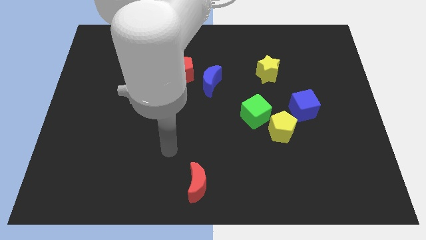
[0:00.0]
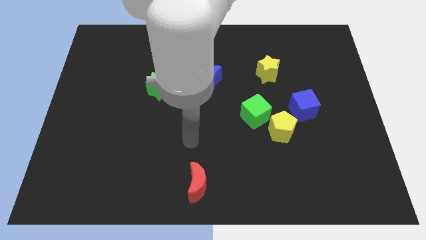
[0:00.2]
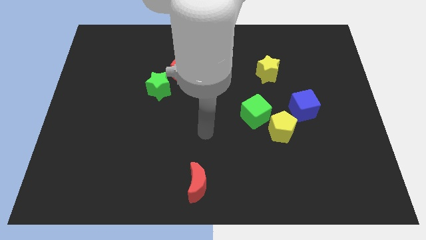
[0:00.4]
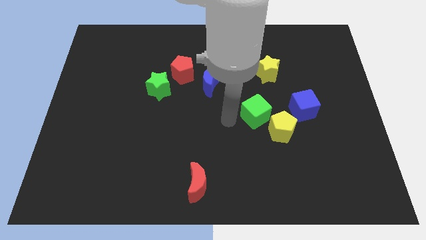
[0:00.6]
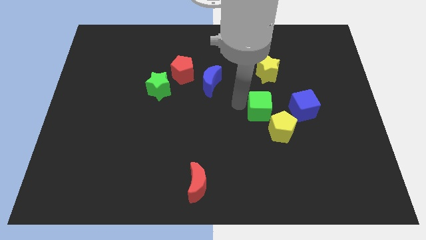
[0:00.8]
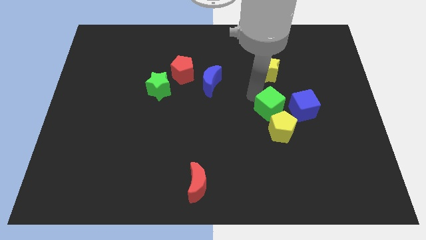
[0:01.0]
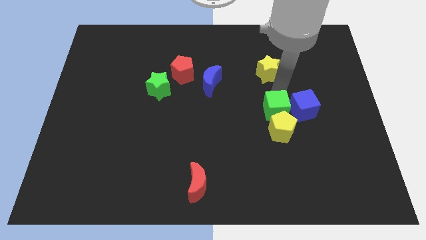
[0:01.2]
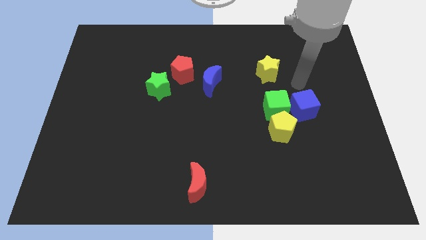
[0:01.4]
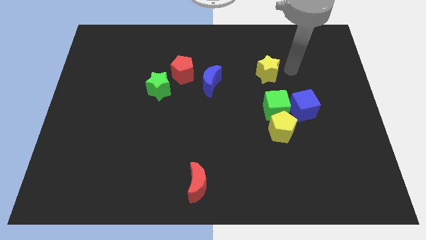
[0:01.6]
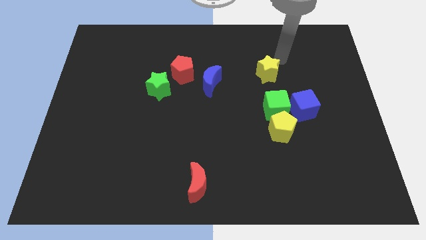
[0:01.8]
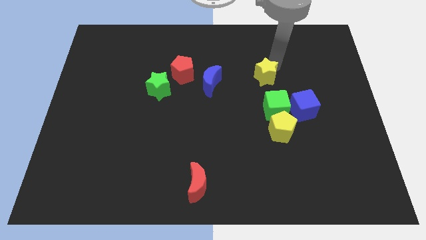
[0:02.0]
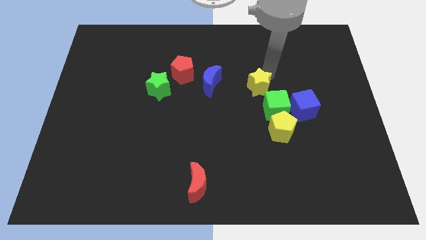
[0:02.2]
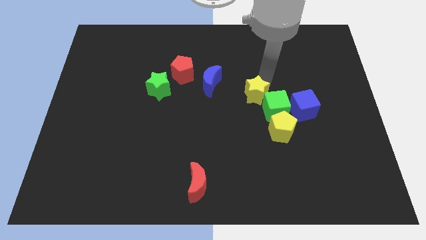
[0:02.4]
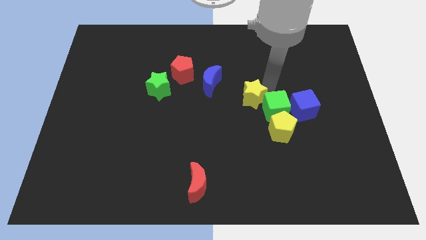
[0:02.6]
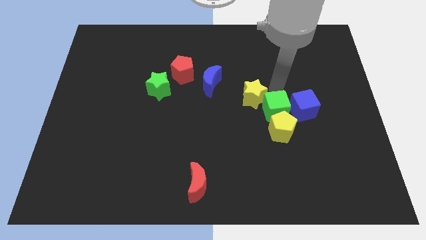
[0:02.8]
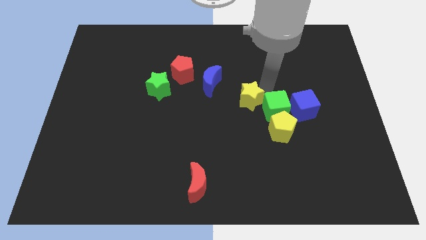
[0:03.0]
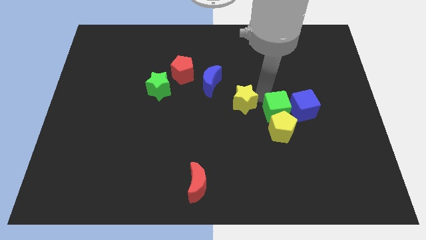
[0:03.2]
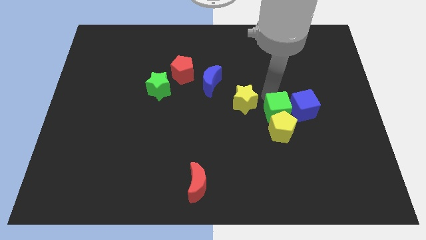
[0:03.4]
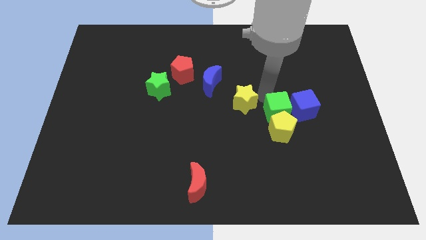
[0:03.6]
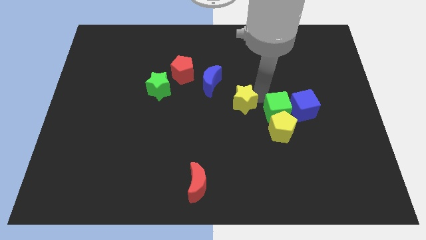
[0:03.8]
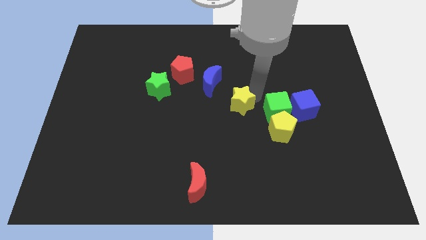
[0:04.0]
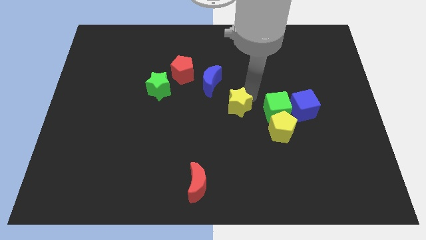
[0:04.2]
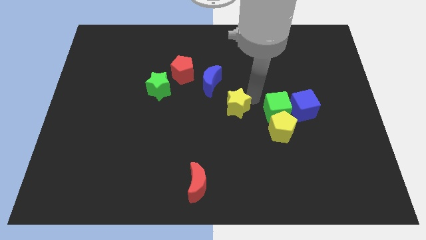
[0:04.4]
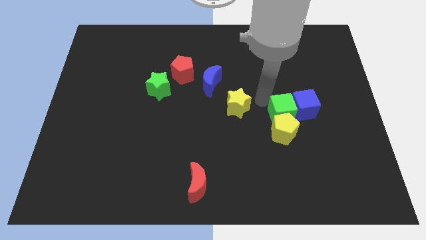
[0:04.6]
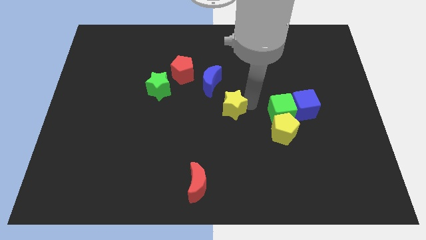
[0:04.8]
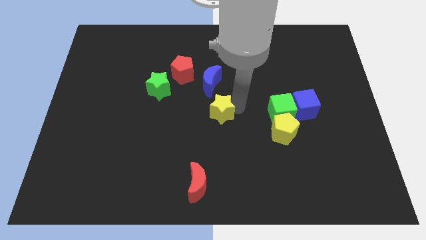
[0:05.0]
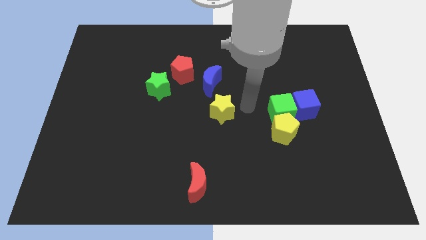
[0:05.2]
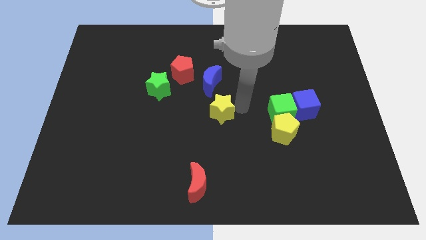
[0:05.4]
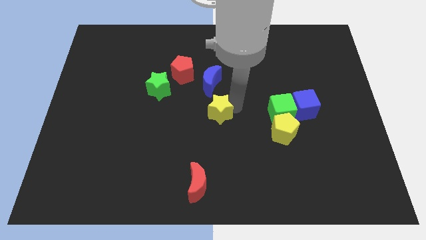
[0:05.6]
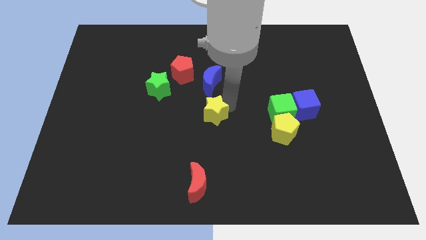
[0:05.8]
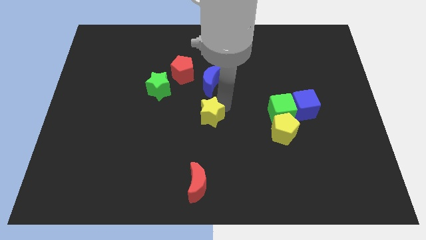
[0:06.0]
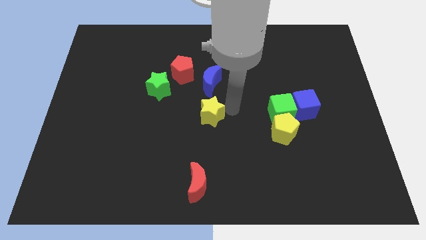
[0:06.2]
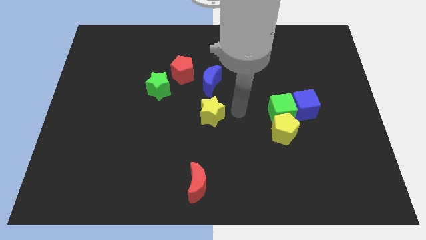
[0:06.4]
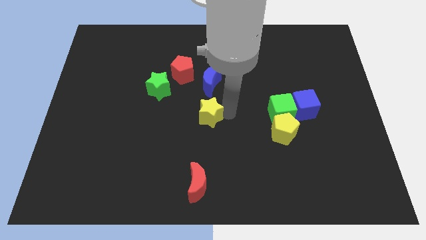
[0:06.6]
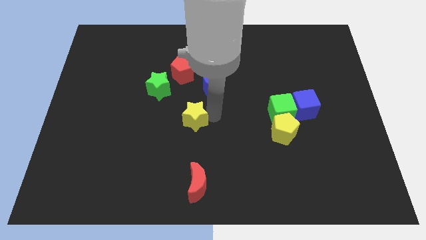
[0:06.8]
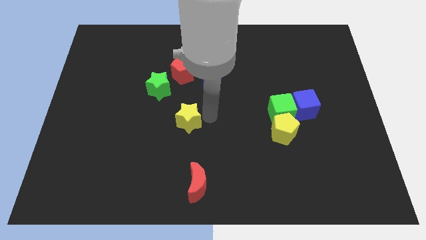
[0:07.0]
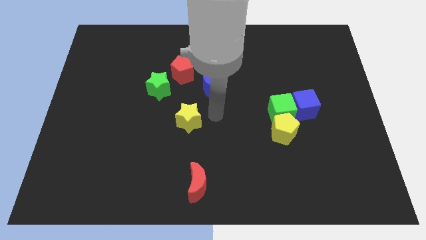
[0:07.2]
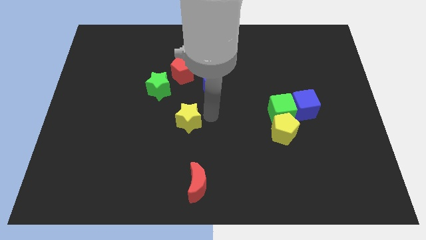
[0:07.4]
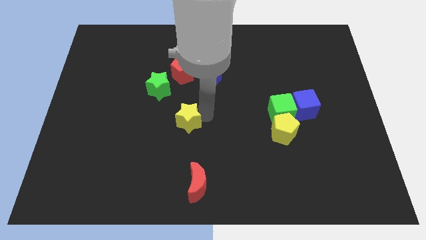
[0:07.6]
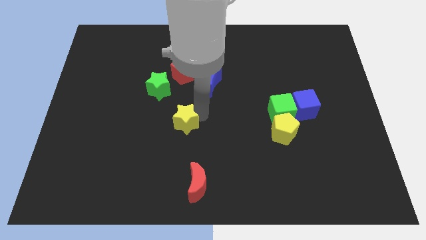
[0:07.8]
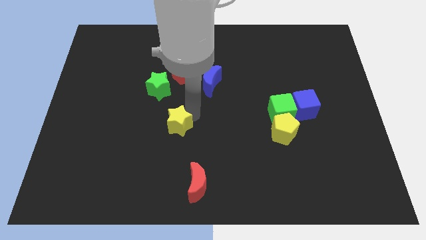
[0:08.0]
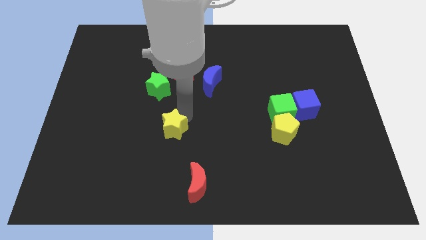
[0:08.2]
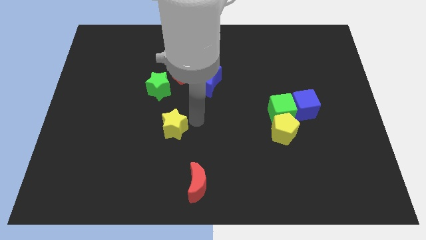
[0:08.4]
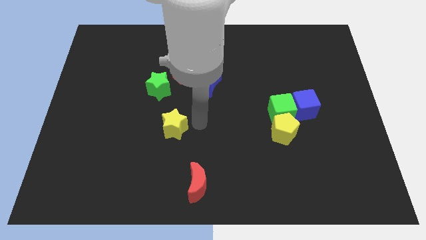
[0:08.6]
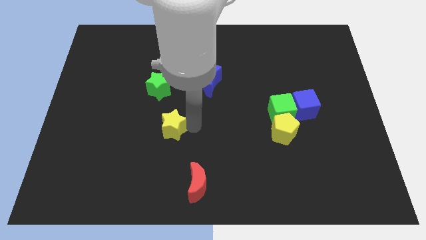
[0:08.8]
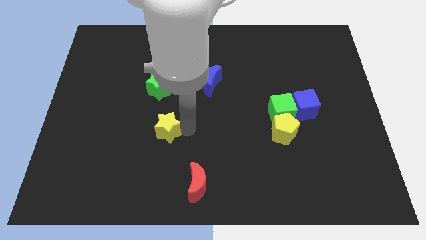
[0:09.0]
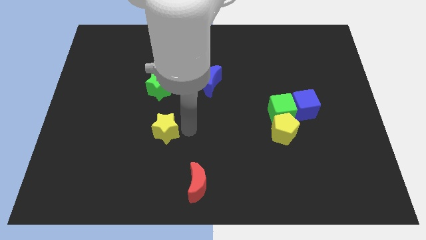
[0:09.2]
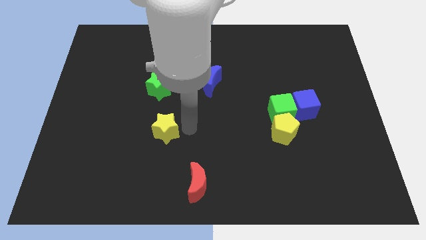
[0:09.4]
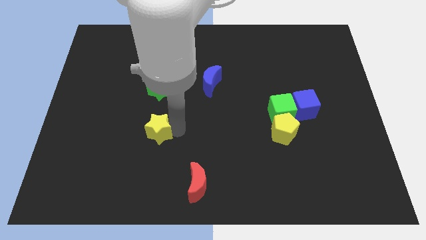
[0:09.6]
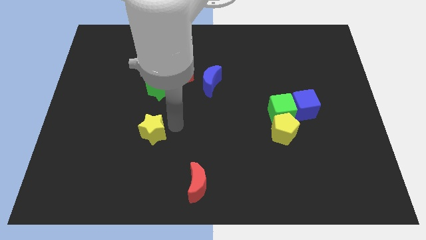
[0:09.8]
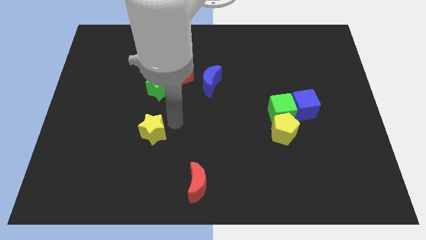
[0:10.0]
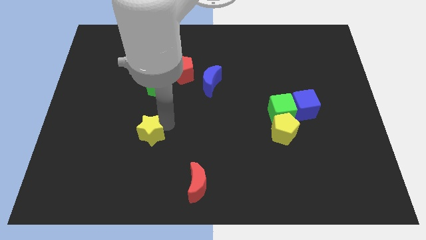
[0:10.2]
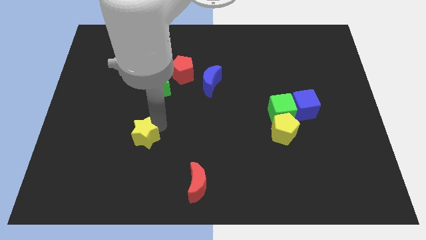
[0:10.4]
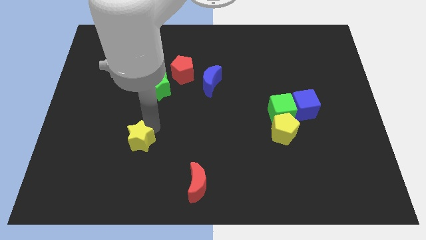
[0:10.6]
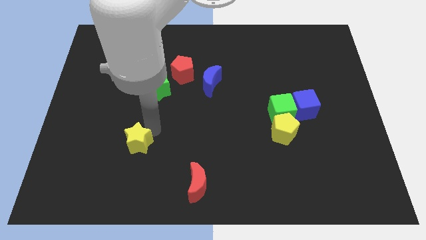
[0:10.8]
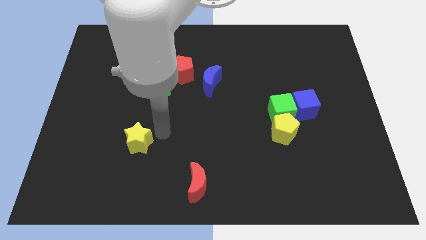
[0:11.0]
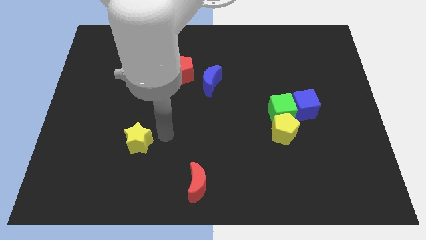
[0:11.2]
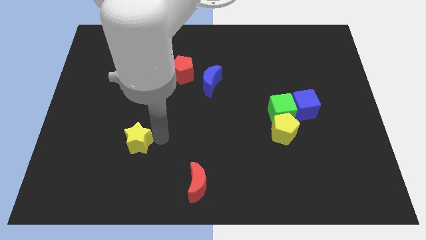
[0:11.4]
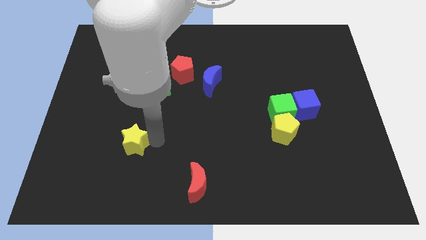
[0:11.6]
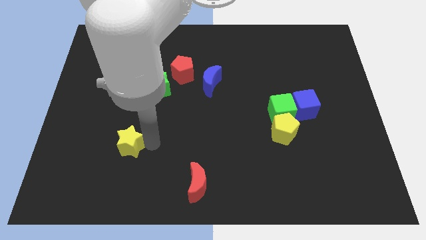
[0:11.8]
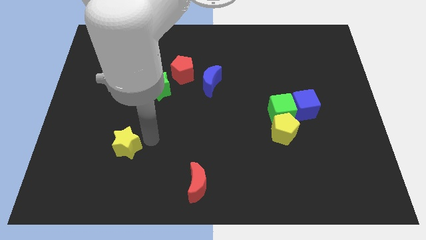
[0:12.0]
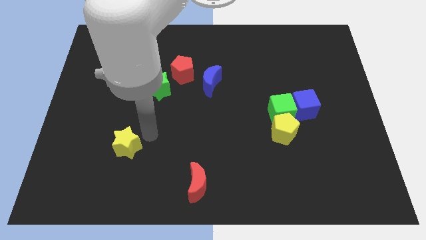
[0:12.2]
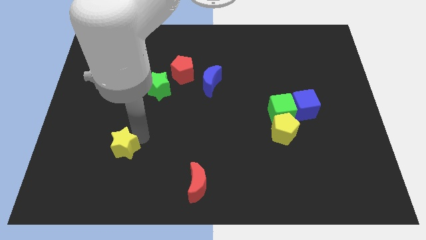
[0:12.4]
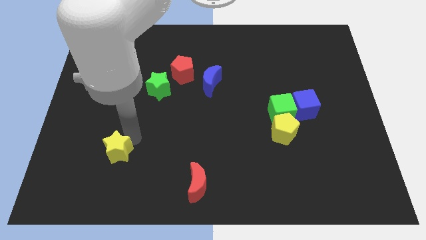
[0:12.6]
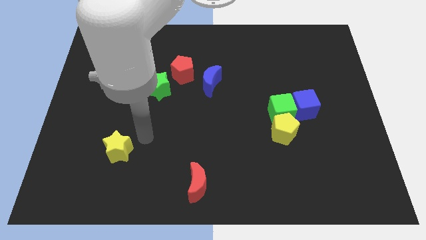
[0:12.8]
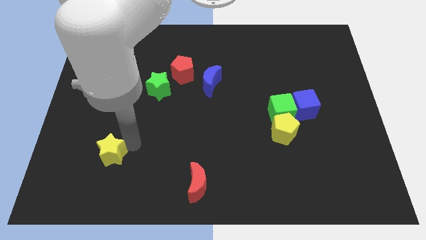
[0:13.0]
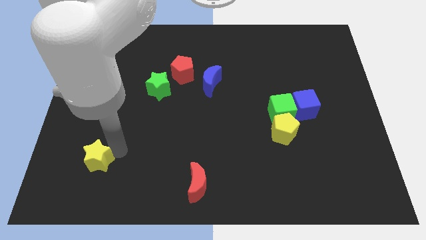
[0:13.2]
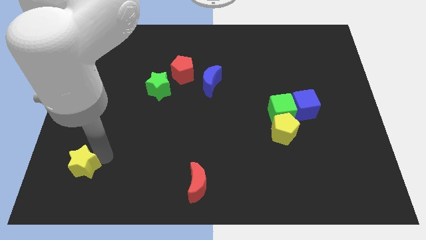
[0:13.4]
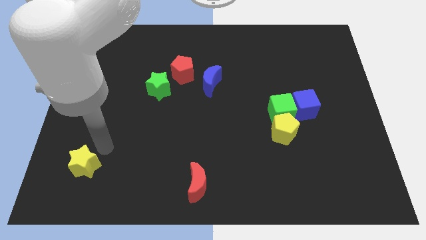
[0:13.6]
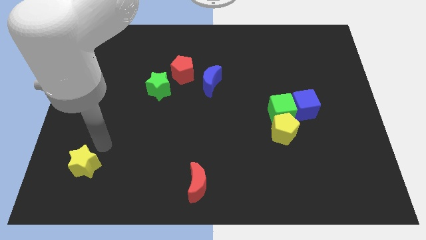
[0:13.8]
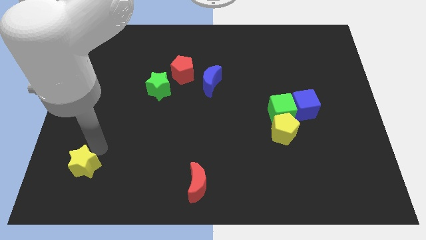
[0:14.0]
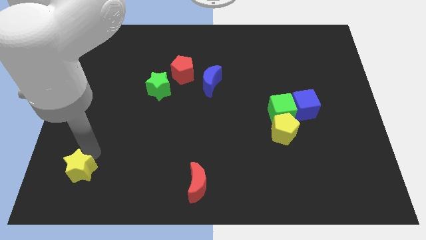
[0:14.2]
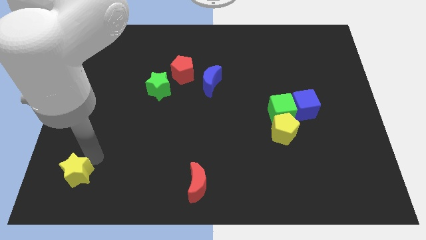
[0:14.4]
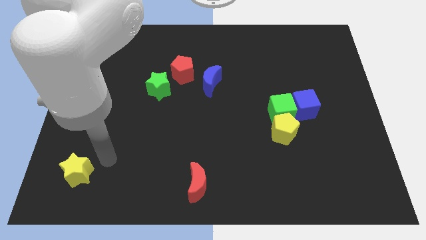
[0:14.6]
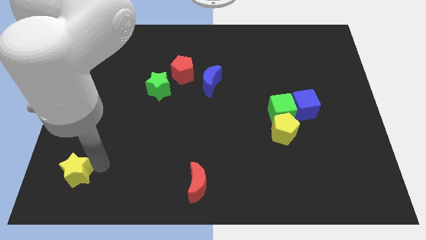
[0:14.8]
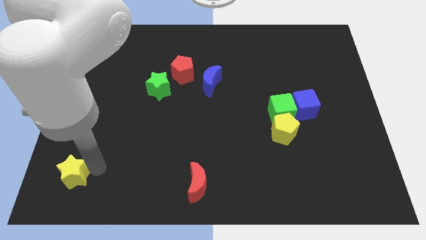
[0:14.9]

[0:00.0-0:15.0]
slide the yellow star to the lower left corner
